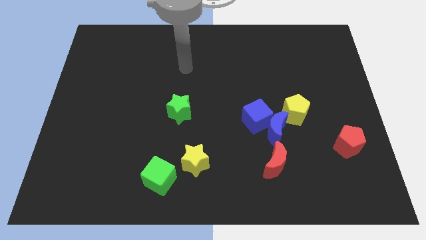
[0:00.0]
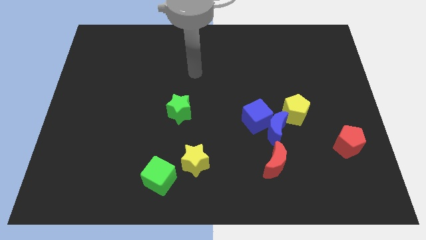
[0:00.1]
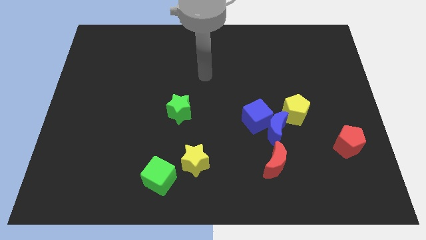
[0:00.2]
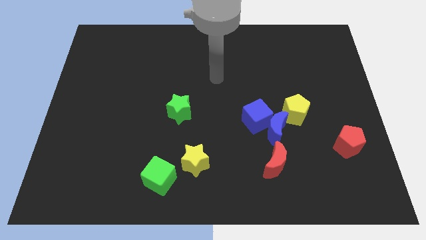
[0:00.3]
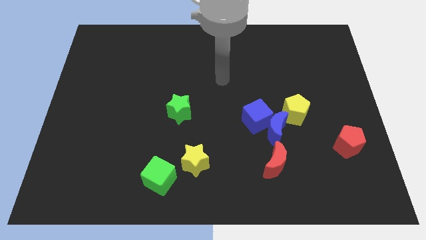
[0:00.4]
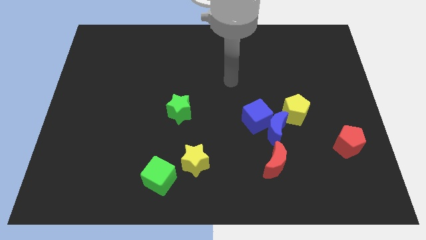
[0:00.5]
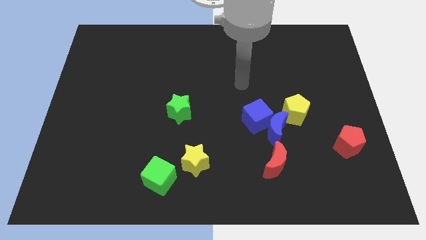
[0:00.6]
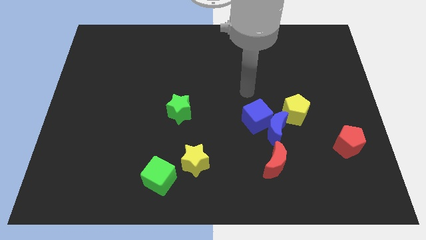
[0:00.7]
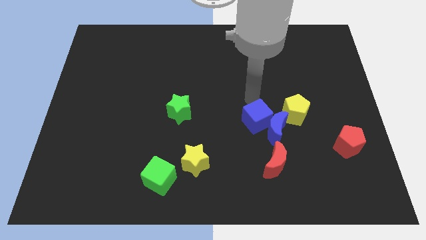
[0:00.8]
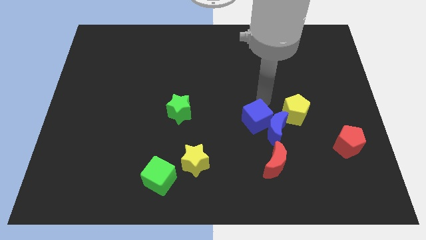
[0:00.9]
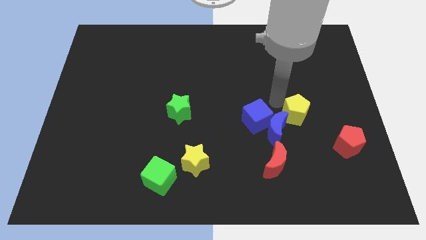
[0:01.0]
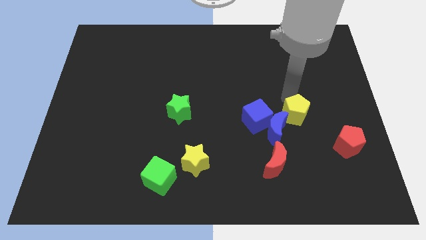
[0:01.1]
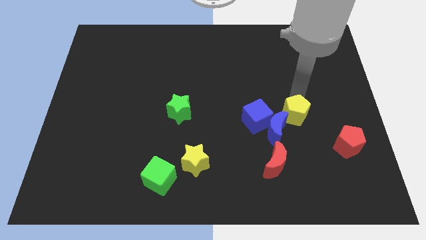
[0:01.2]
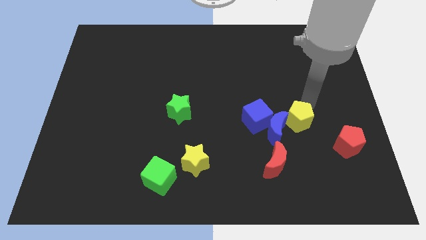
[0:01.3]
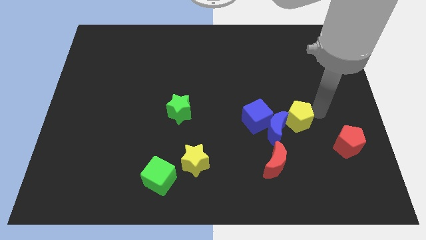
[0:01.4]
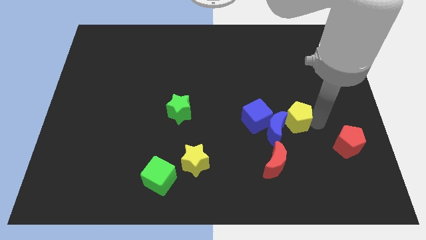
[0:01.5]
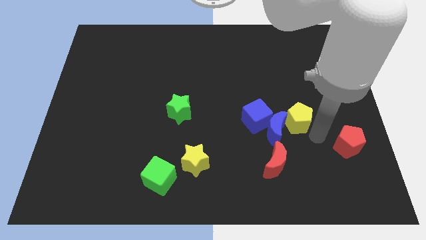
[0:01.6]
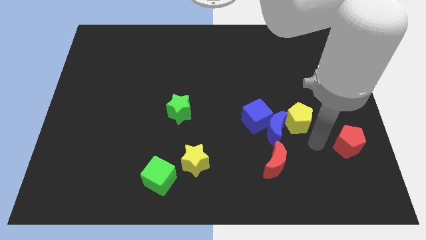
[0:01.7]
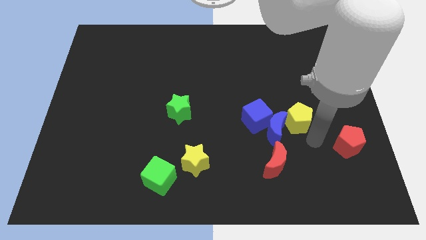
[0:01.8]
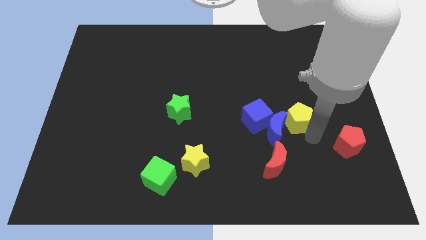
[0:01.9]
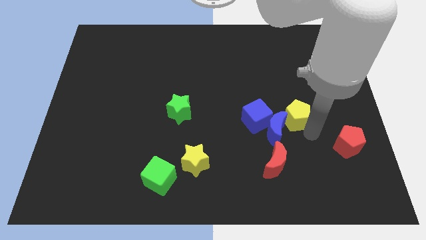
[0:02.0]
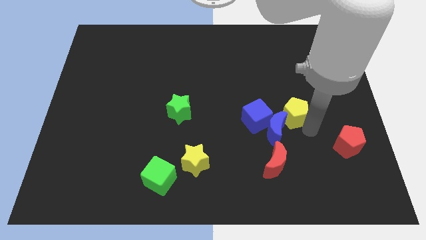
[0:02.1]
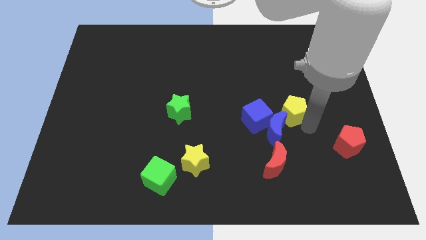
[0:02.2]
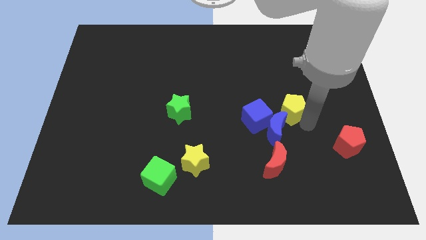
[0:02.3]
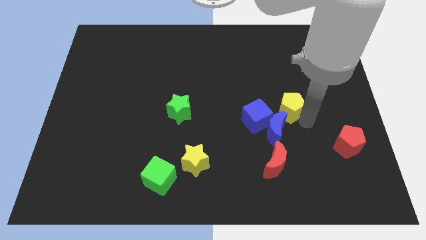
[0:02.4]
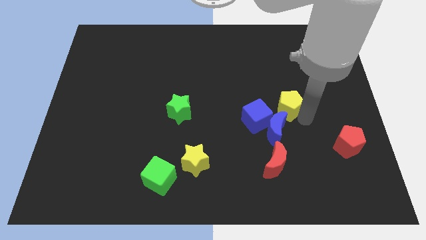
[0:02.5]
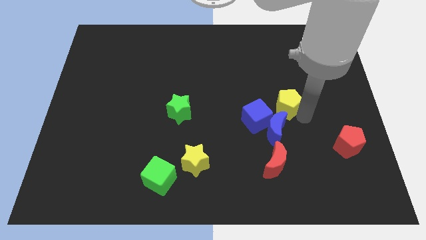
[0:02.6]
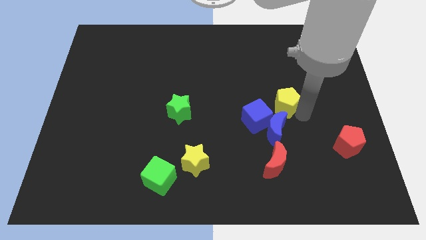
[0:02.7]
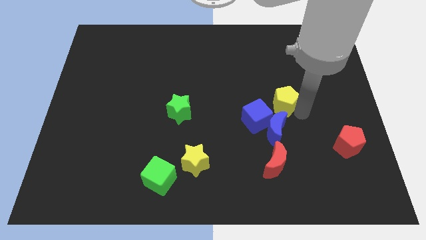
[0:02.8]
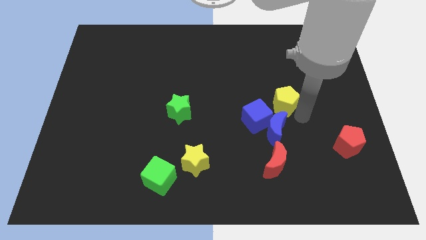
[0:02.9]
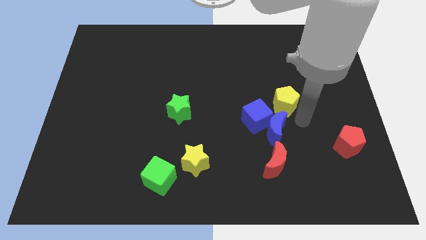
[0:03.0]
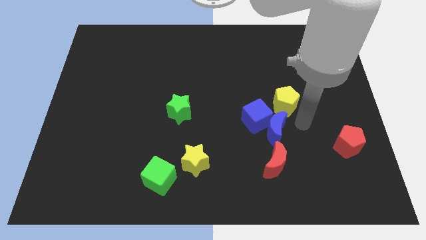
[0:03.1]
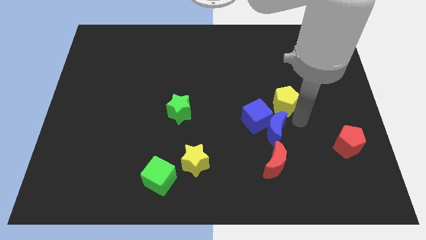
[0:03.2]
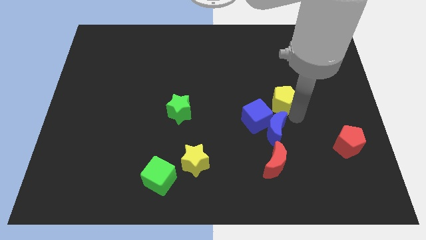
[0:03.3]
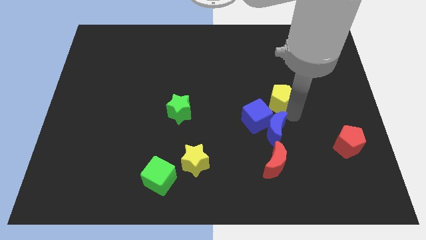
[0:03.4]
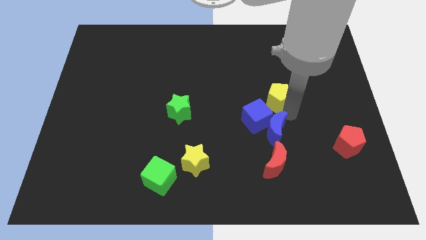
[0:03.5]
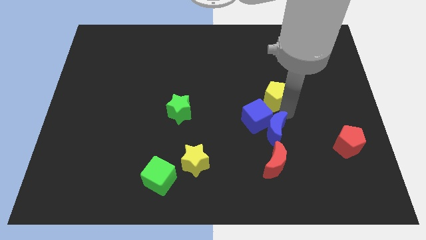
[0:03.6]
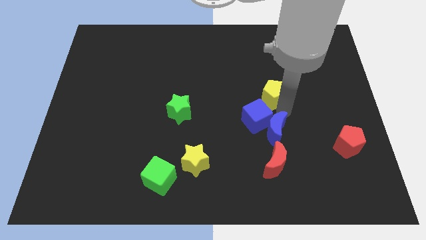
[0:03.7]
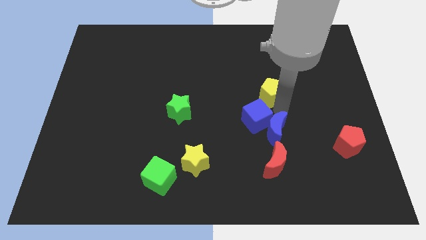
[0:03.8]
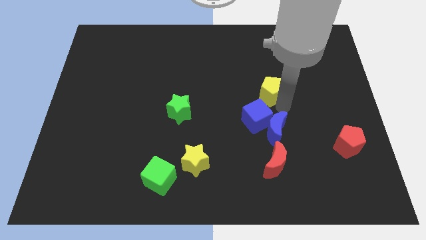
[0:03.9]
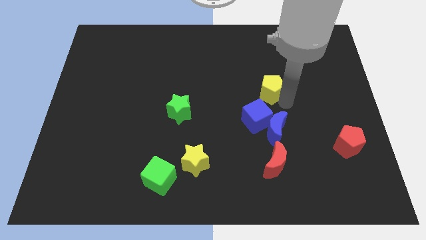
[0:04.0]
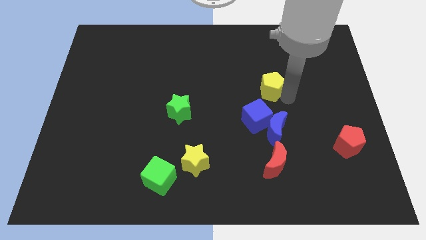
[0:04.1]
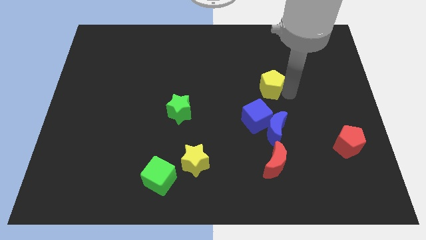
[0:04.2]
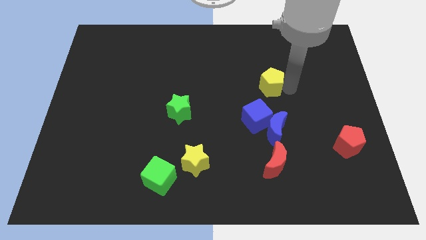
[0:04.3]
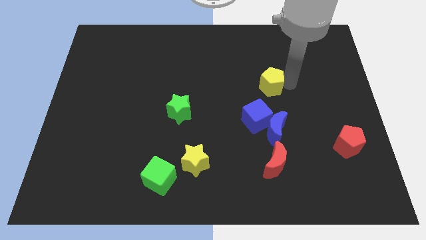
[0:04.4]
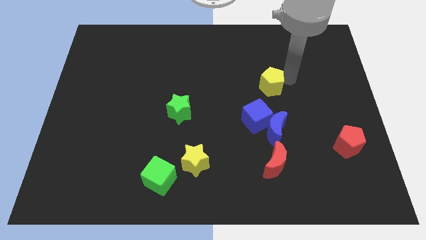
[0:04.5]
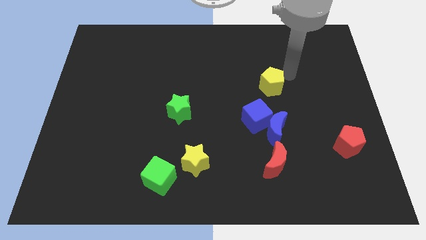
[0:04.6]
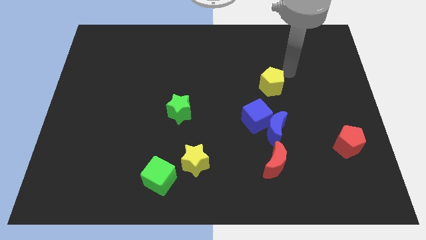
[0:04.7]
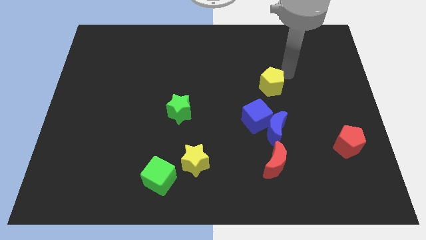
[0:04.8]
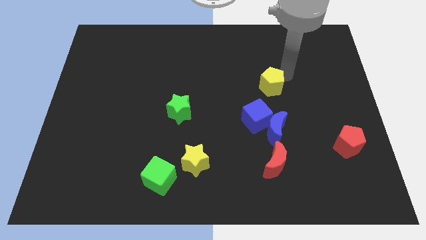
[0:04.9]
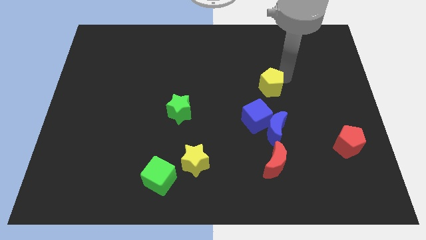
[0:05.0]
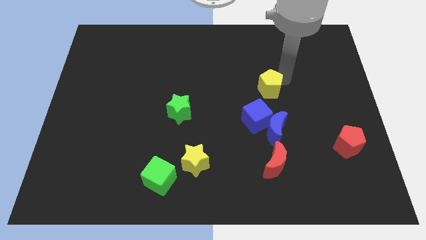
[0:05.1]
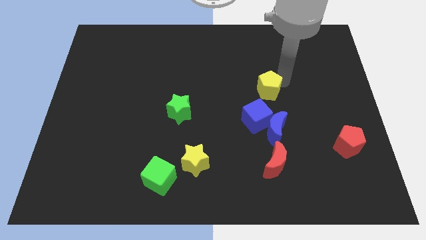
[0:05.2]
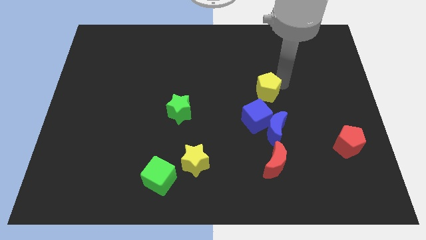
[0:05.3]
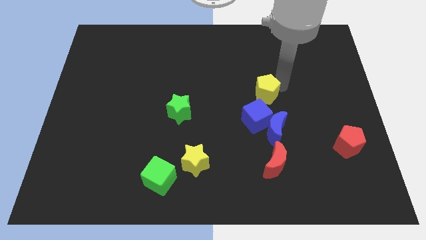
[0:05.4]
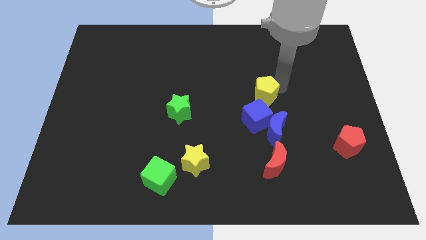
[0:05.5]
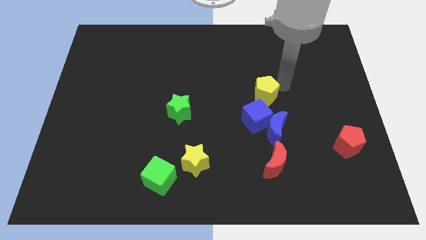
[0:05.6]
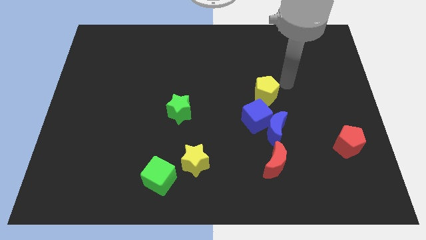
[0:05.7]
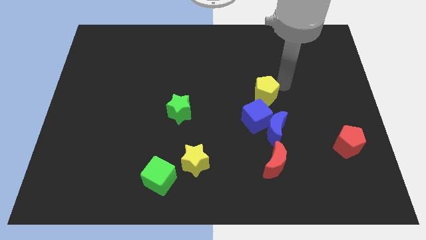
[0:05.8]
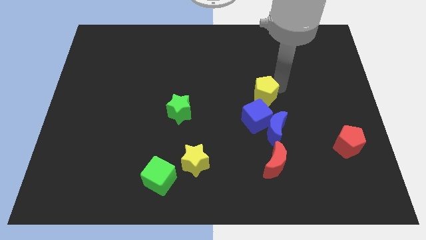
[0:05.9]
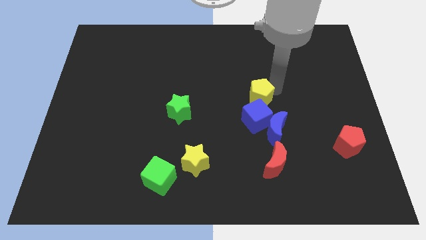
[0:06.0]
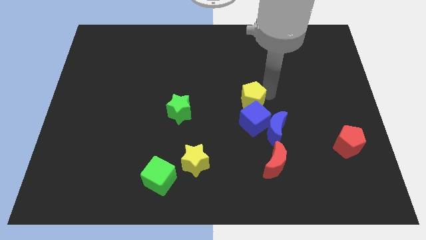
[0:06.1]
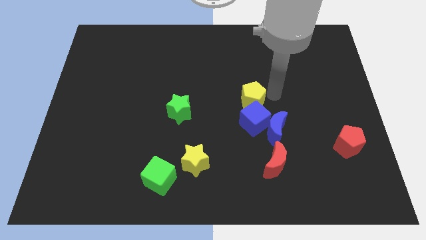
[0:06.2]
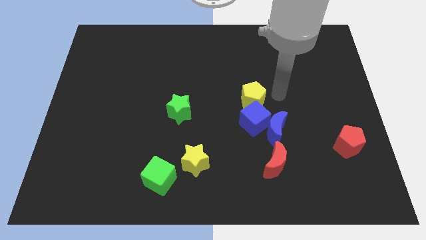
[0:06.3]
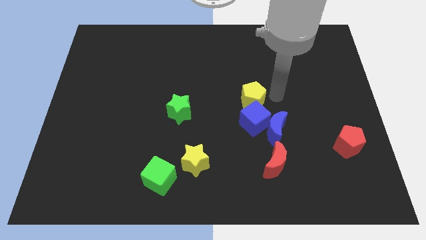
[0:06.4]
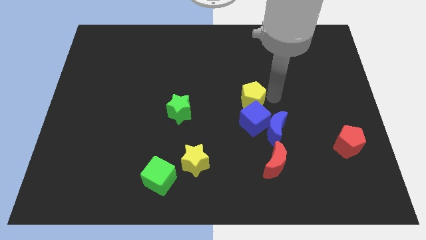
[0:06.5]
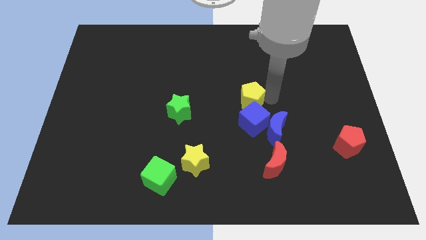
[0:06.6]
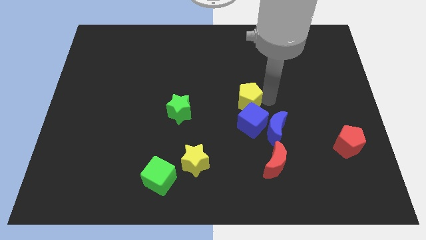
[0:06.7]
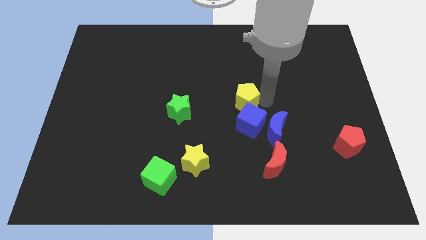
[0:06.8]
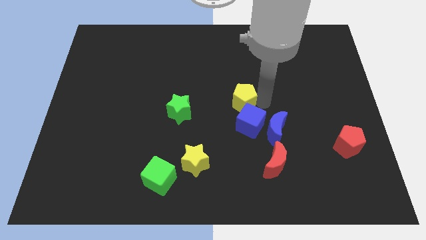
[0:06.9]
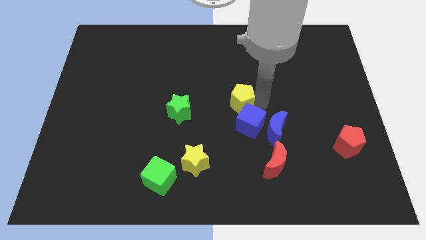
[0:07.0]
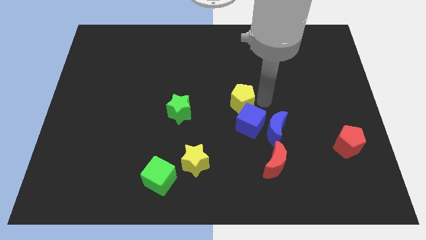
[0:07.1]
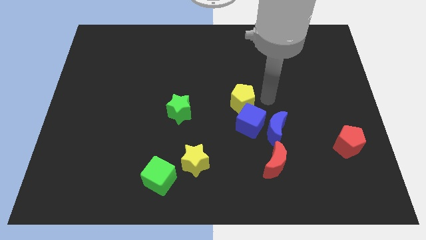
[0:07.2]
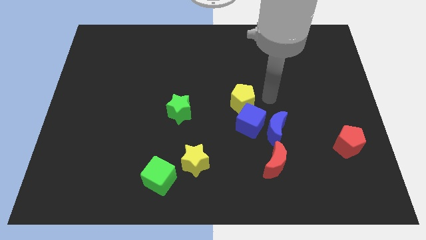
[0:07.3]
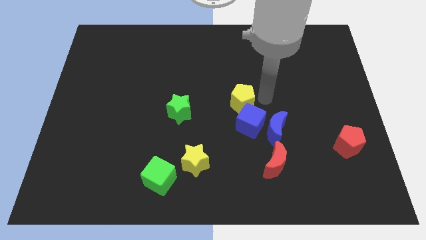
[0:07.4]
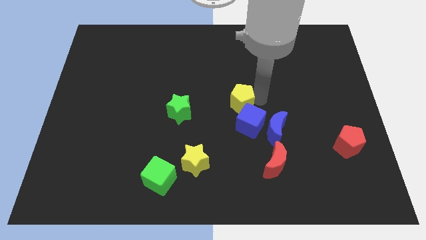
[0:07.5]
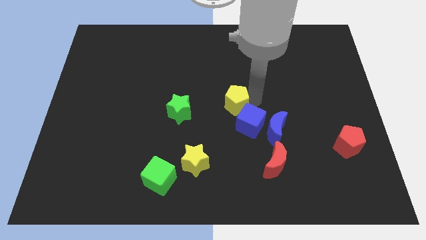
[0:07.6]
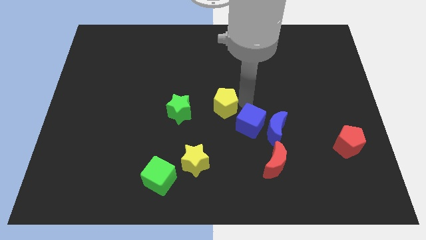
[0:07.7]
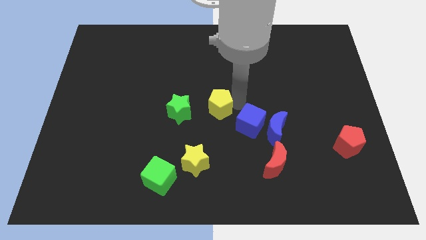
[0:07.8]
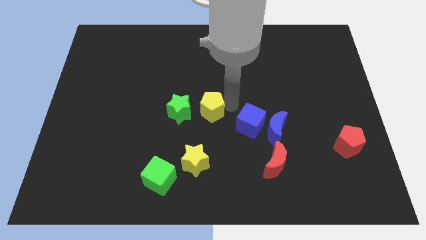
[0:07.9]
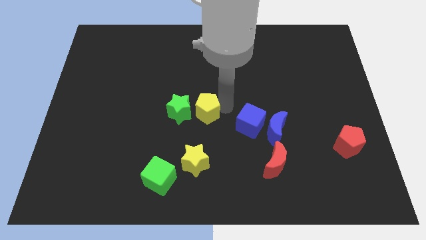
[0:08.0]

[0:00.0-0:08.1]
push the yellow pentagon towards the green star
